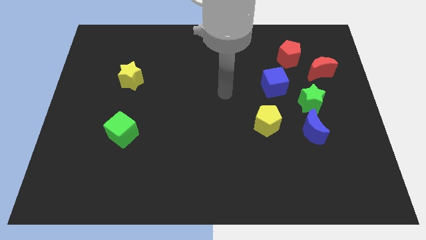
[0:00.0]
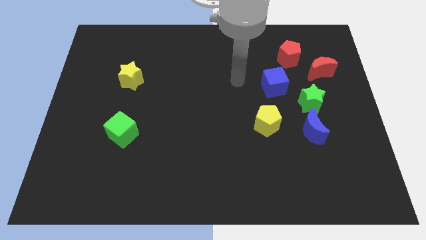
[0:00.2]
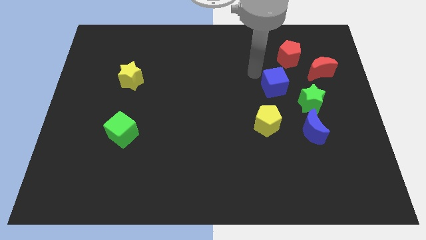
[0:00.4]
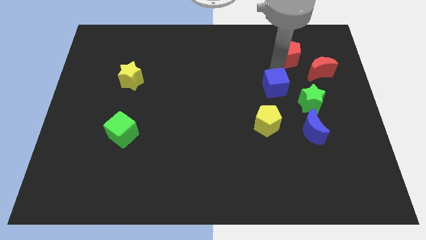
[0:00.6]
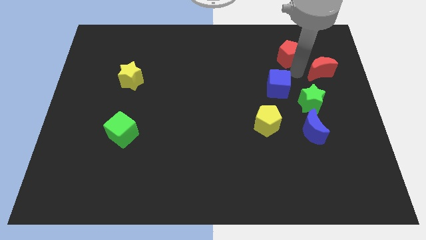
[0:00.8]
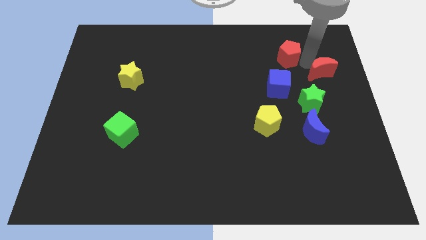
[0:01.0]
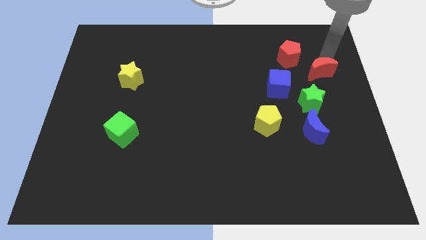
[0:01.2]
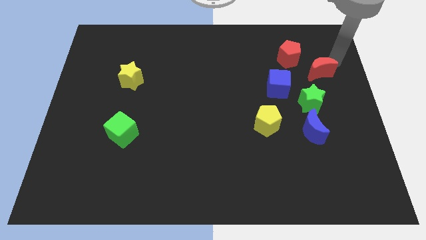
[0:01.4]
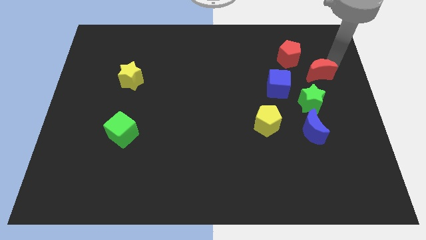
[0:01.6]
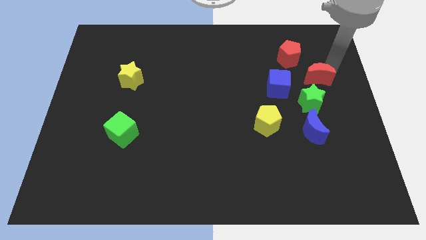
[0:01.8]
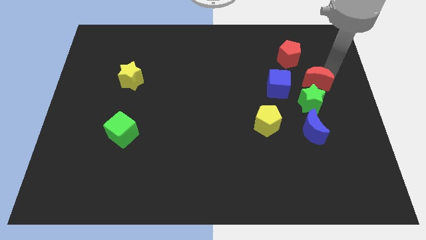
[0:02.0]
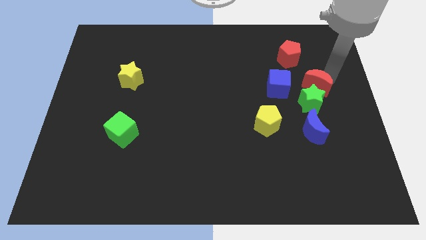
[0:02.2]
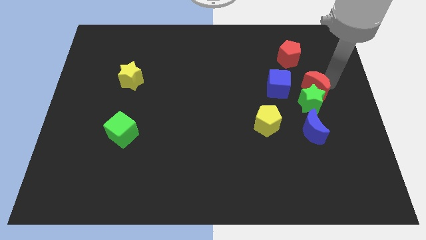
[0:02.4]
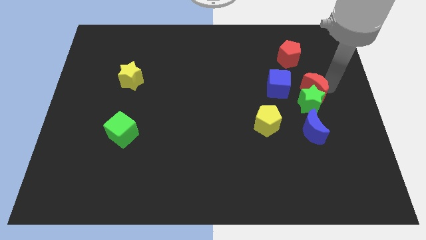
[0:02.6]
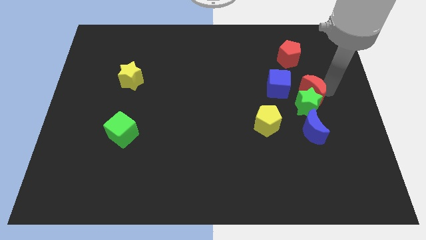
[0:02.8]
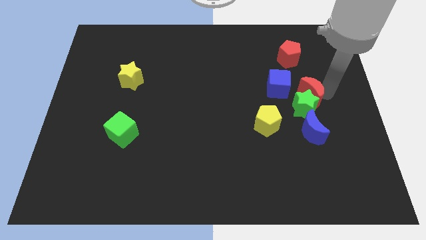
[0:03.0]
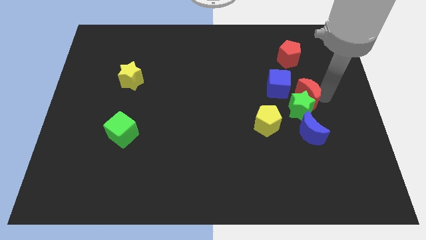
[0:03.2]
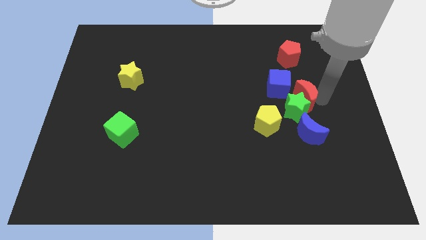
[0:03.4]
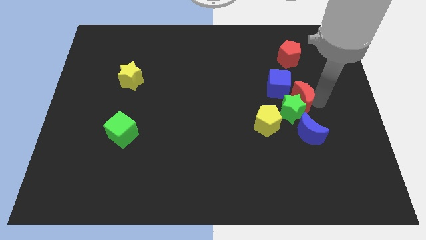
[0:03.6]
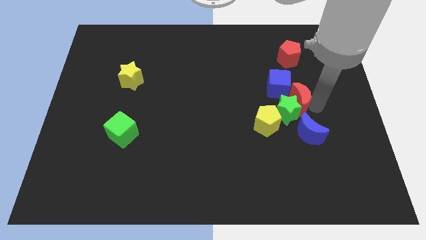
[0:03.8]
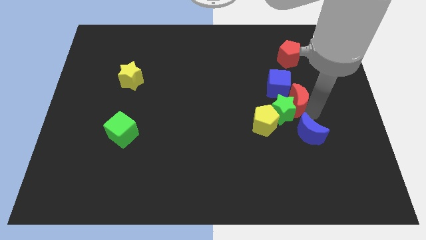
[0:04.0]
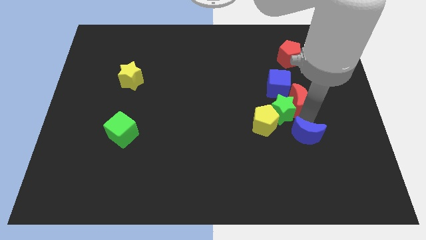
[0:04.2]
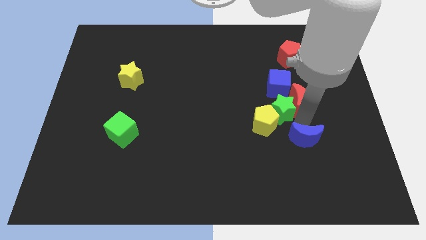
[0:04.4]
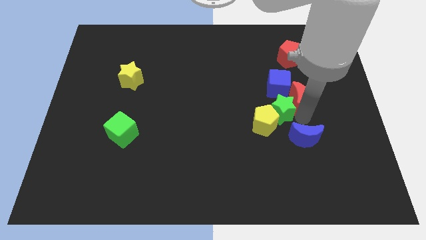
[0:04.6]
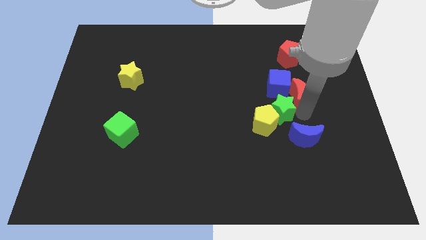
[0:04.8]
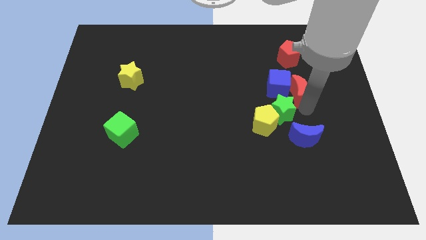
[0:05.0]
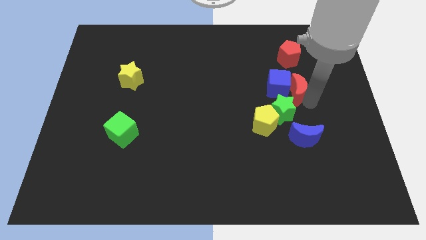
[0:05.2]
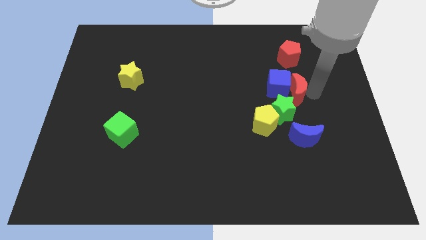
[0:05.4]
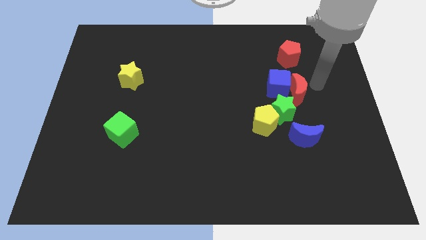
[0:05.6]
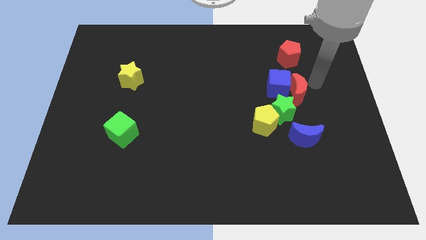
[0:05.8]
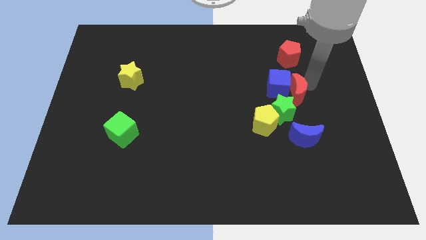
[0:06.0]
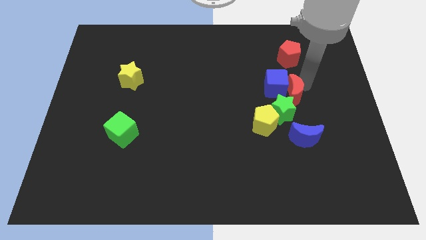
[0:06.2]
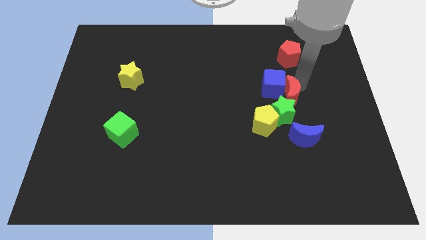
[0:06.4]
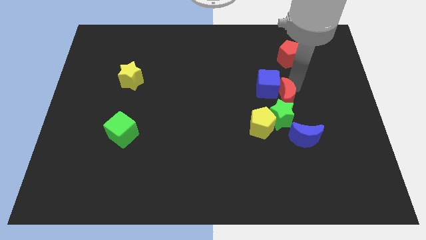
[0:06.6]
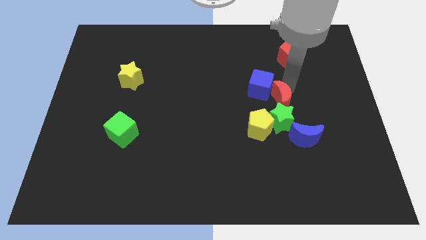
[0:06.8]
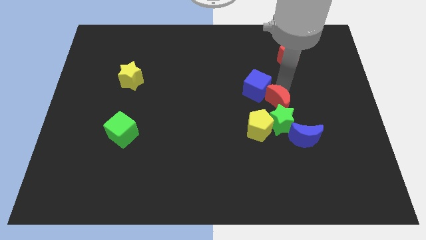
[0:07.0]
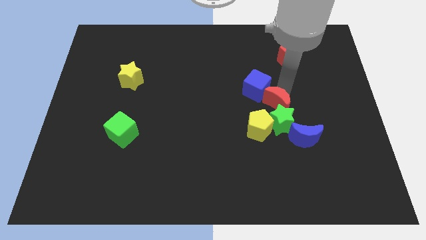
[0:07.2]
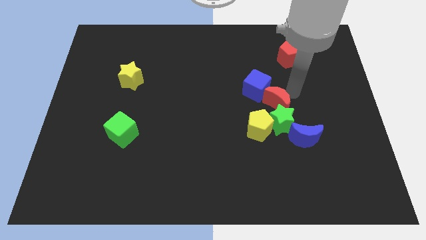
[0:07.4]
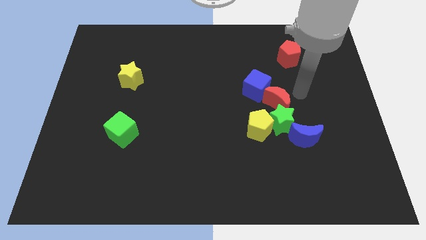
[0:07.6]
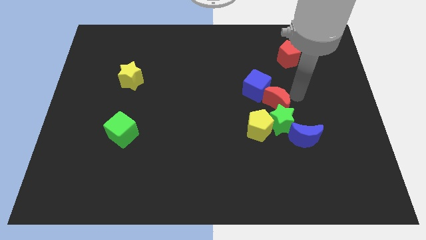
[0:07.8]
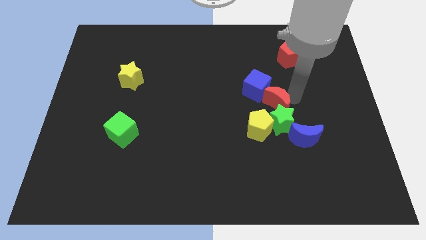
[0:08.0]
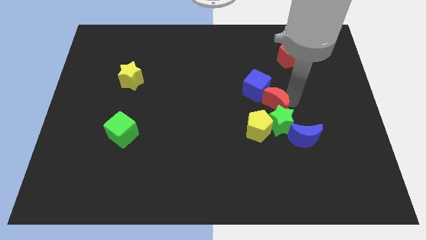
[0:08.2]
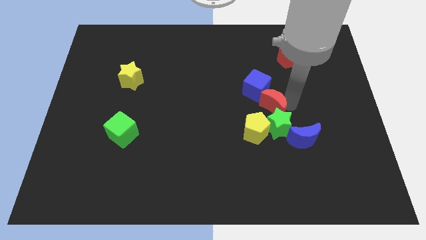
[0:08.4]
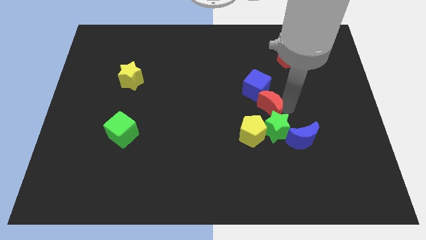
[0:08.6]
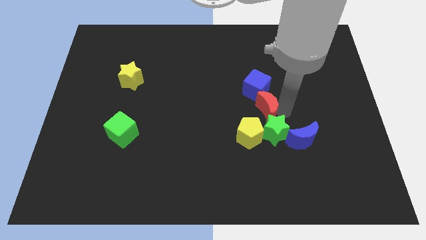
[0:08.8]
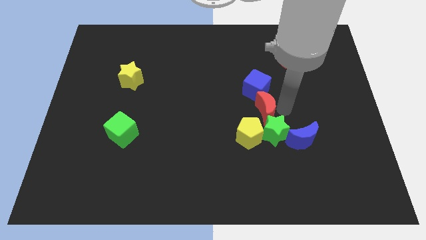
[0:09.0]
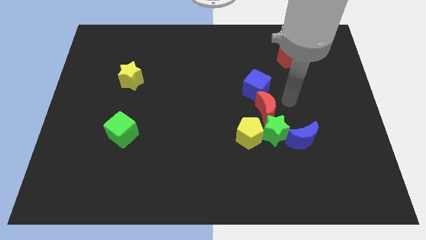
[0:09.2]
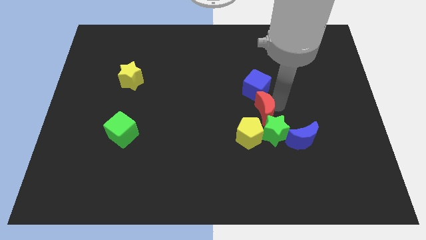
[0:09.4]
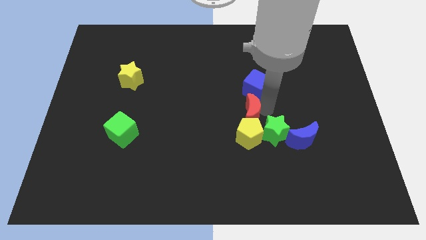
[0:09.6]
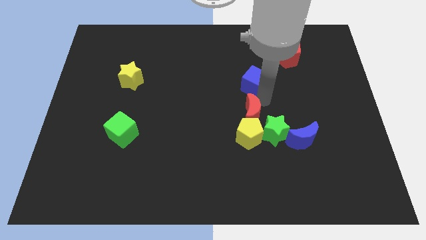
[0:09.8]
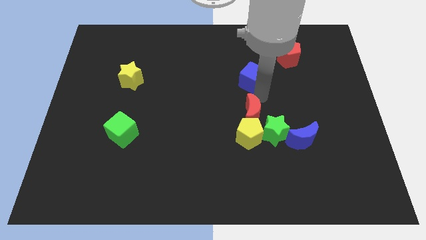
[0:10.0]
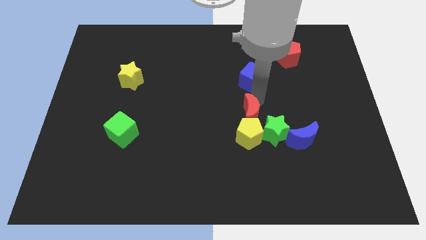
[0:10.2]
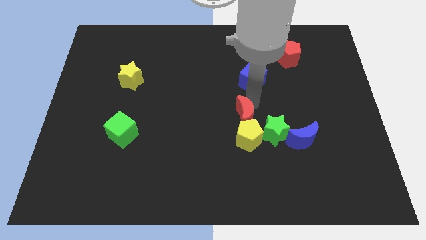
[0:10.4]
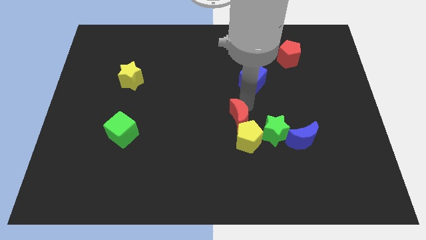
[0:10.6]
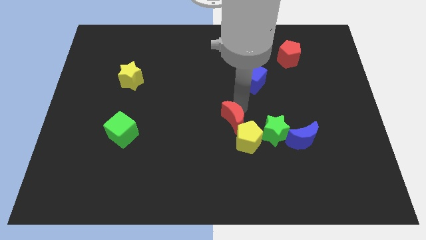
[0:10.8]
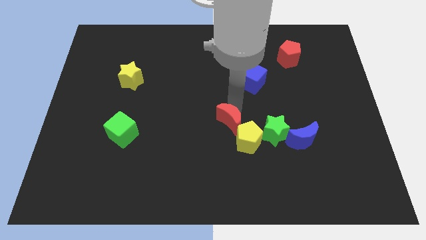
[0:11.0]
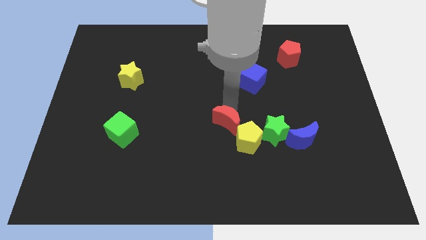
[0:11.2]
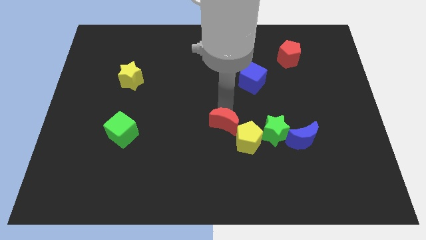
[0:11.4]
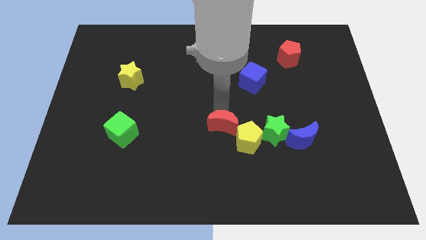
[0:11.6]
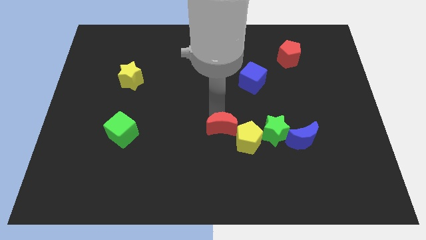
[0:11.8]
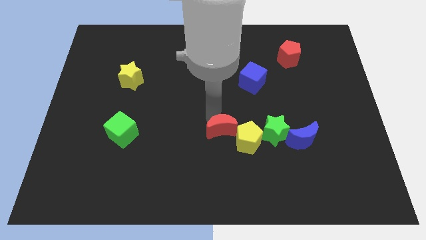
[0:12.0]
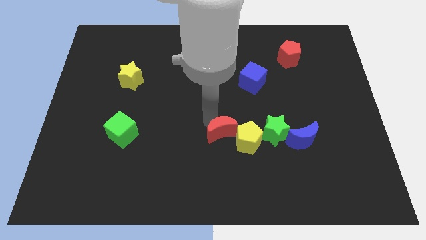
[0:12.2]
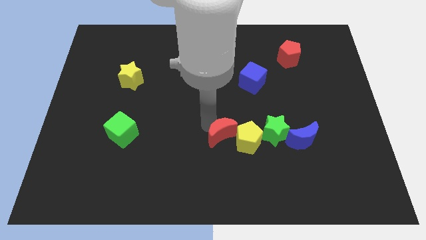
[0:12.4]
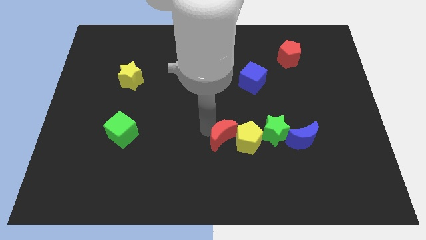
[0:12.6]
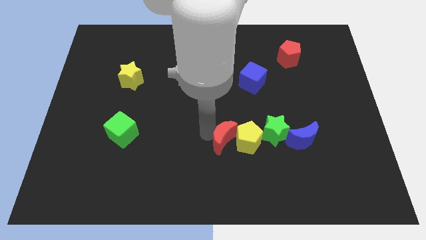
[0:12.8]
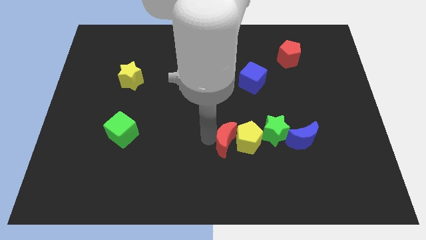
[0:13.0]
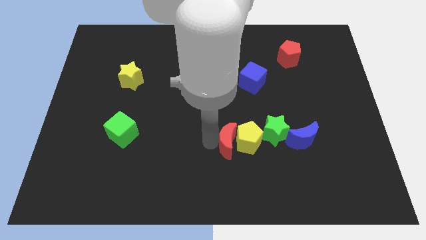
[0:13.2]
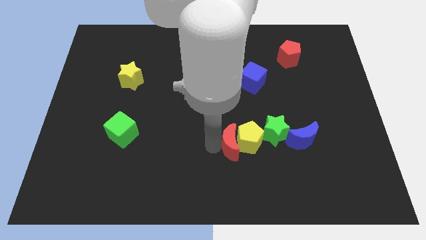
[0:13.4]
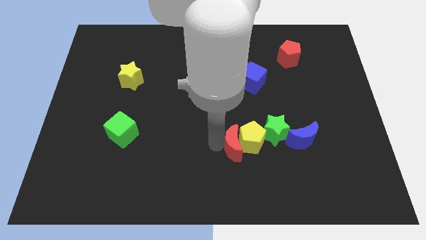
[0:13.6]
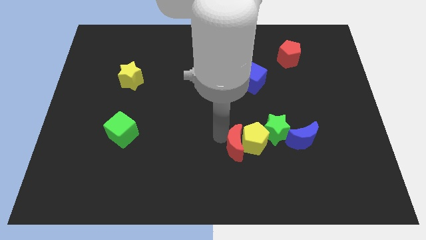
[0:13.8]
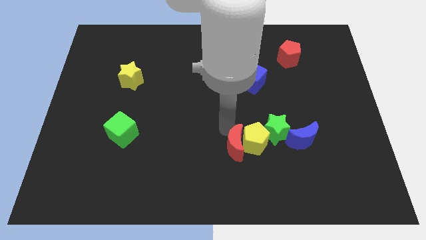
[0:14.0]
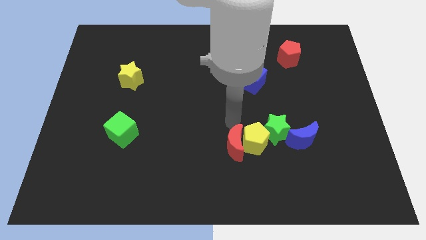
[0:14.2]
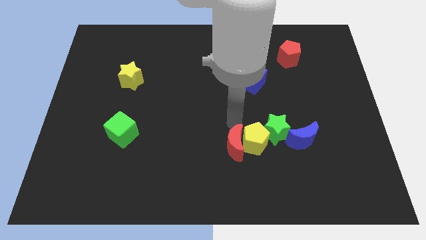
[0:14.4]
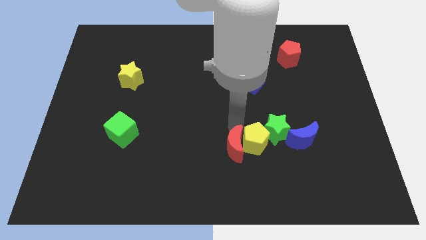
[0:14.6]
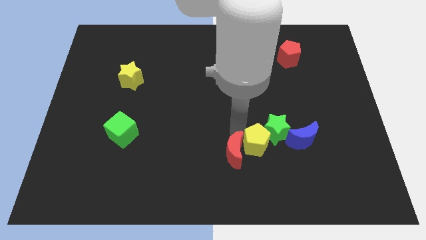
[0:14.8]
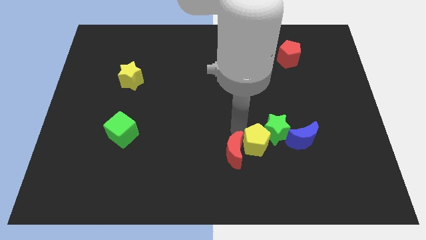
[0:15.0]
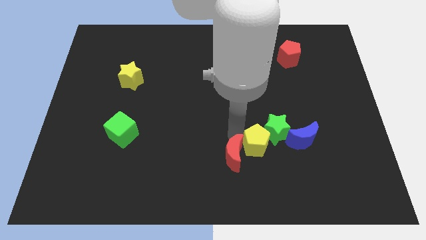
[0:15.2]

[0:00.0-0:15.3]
move the red moon to the bottom side
